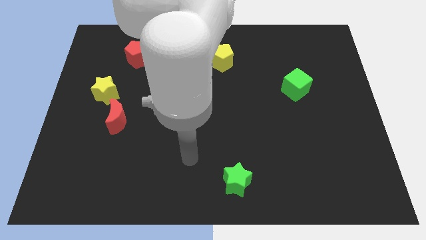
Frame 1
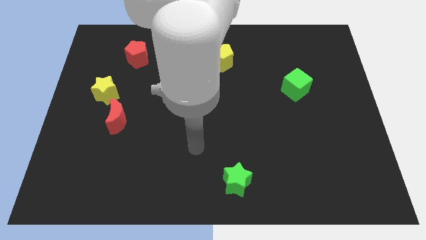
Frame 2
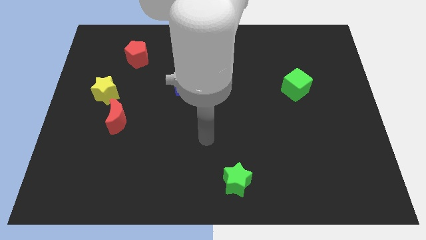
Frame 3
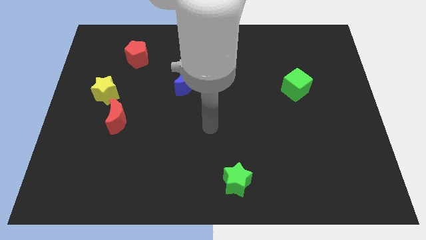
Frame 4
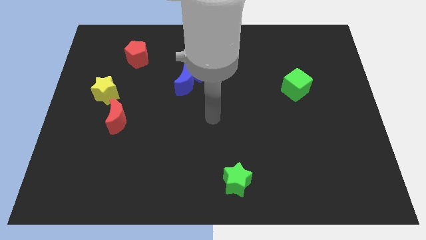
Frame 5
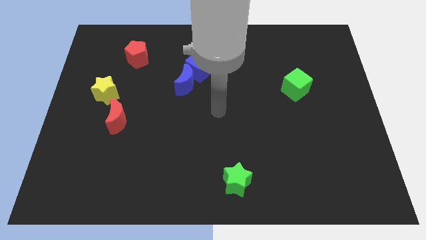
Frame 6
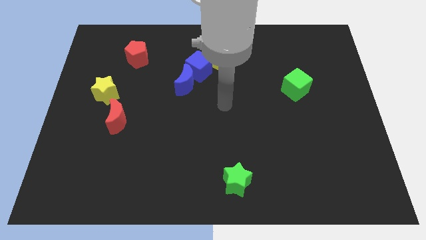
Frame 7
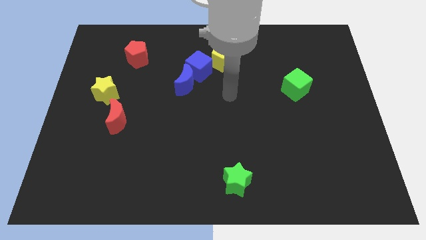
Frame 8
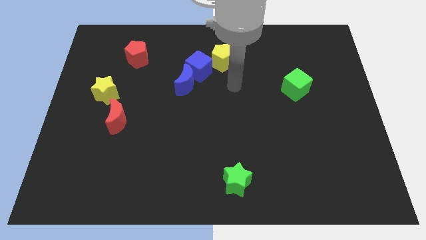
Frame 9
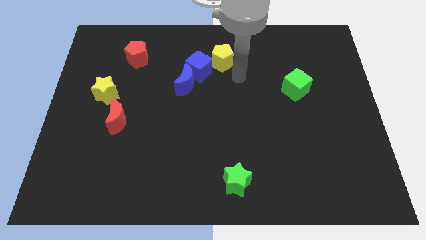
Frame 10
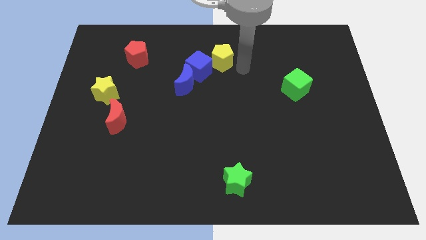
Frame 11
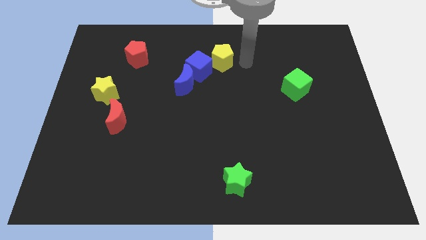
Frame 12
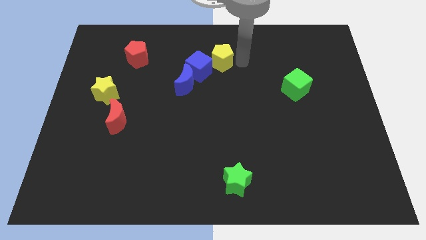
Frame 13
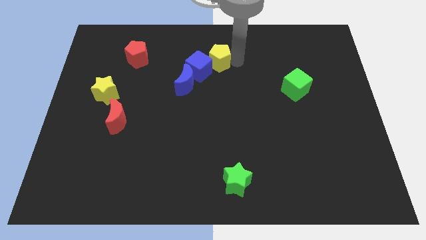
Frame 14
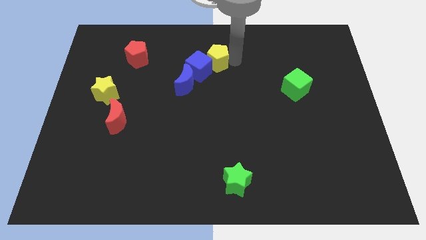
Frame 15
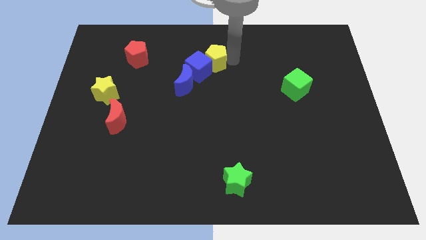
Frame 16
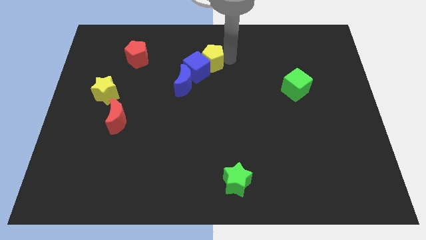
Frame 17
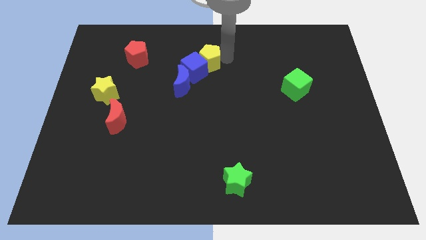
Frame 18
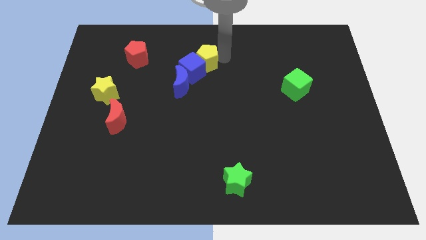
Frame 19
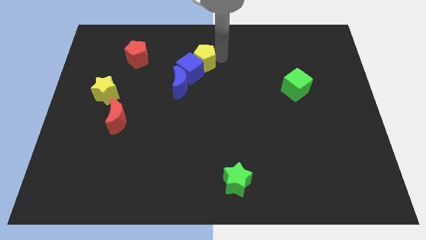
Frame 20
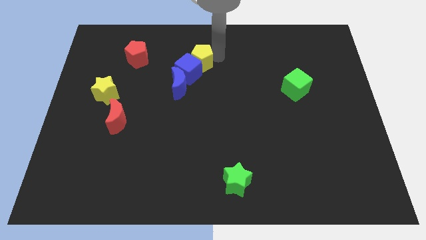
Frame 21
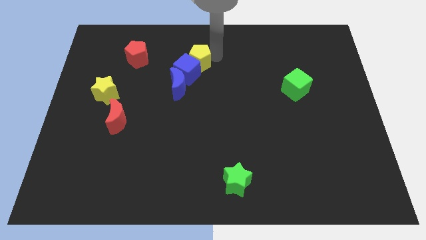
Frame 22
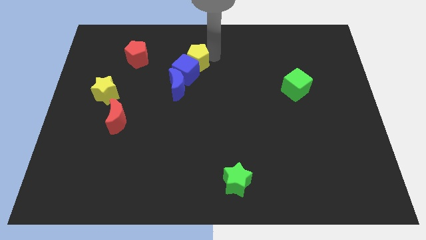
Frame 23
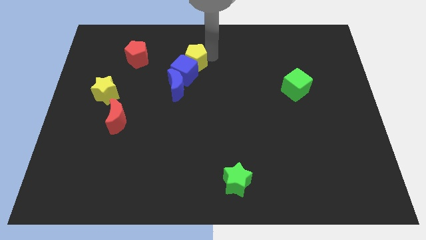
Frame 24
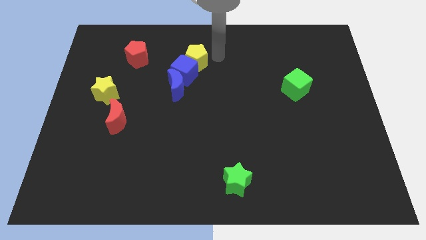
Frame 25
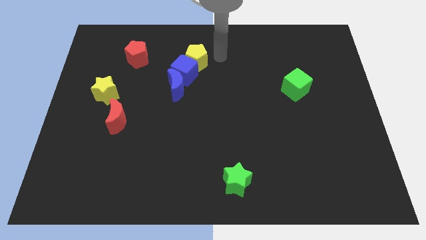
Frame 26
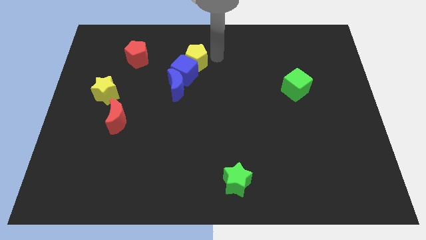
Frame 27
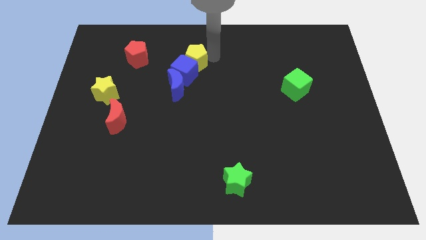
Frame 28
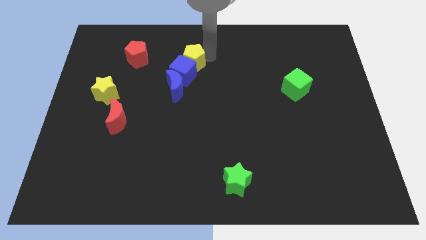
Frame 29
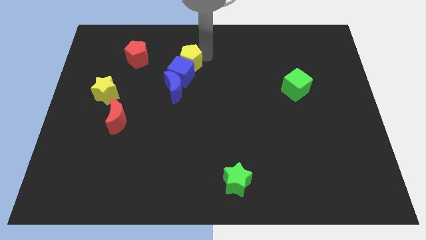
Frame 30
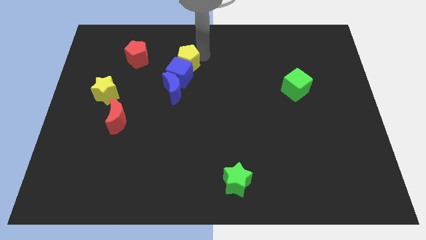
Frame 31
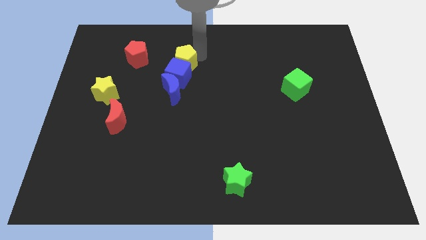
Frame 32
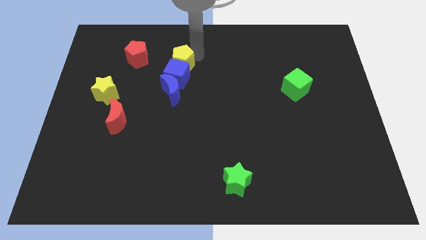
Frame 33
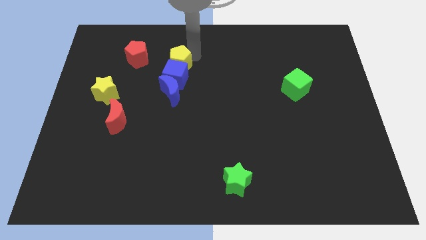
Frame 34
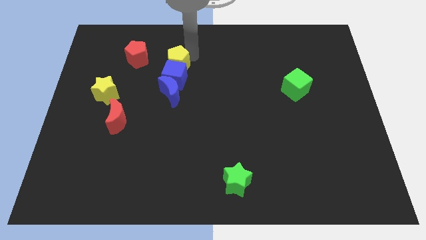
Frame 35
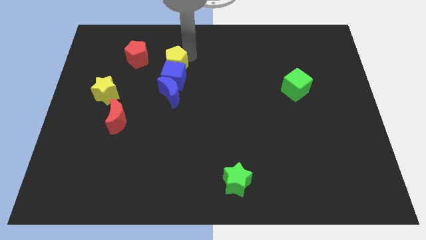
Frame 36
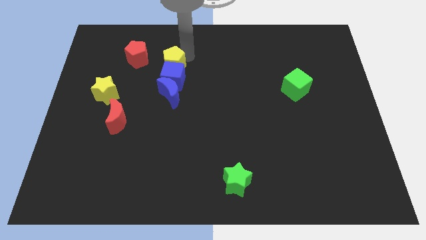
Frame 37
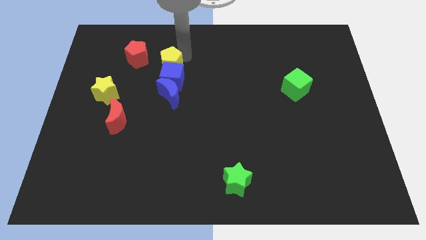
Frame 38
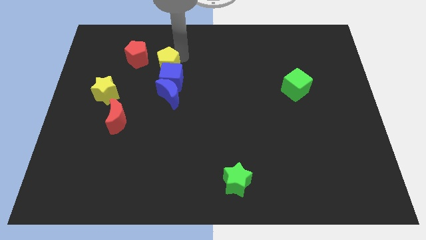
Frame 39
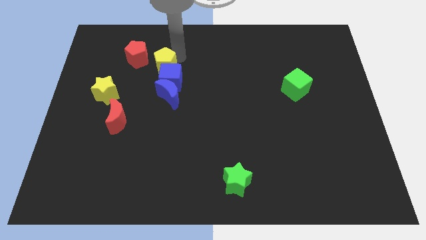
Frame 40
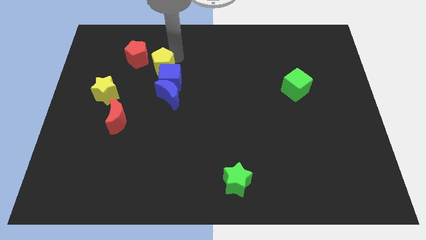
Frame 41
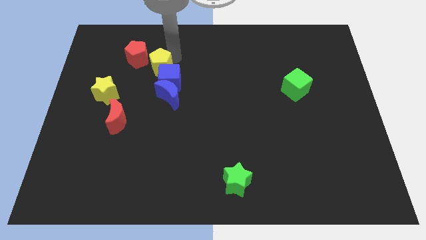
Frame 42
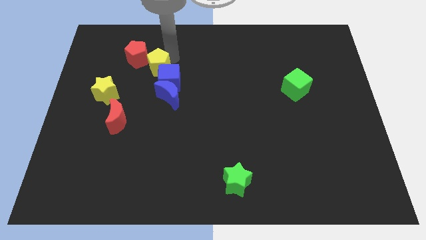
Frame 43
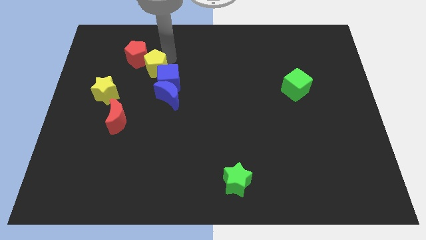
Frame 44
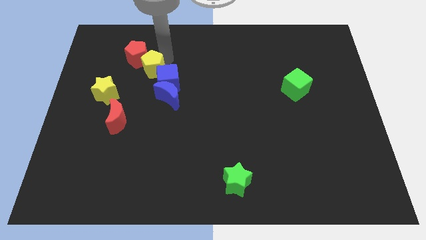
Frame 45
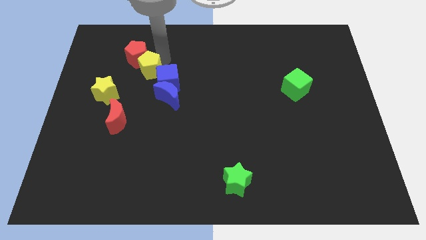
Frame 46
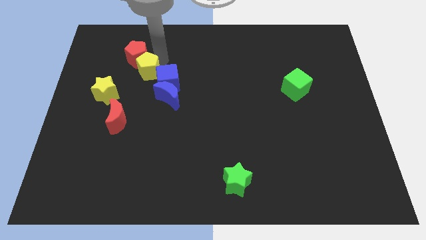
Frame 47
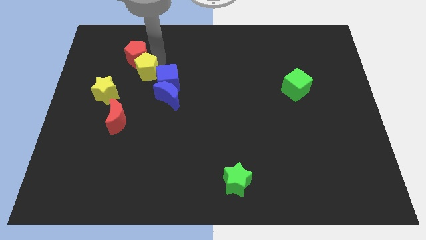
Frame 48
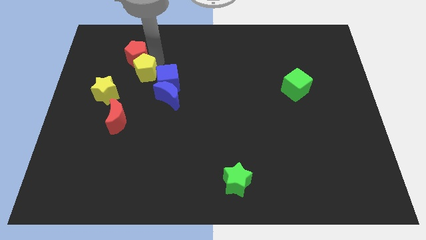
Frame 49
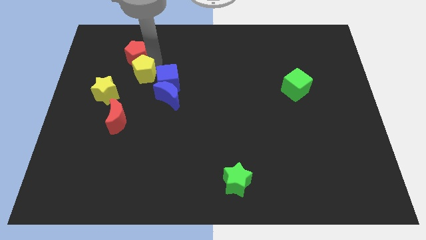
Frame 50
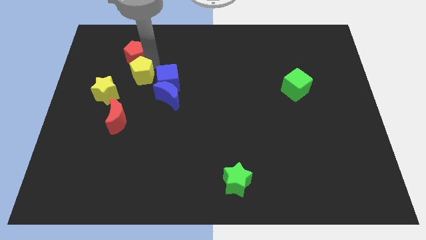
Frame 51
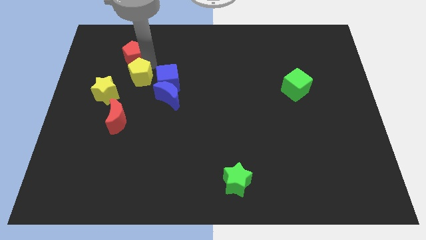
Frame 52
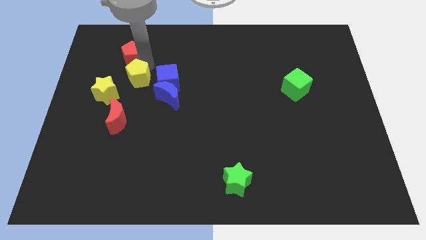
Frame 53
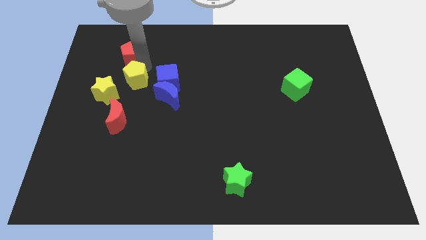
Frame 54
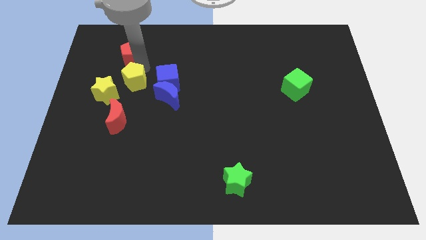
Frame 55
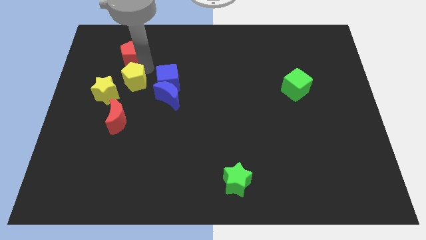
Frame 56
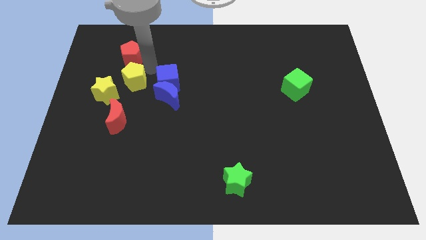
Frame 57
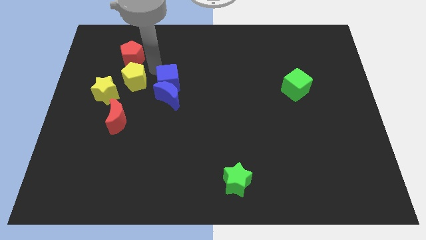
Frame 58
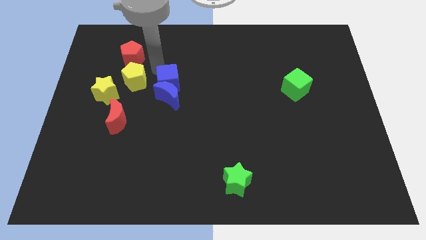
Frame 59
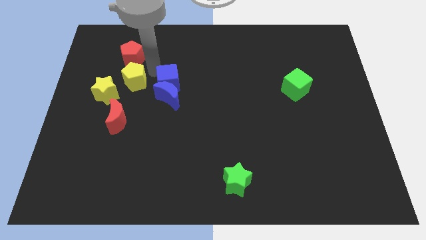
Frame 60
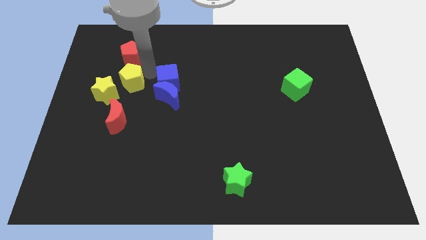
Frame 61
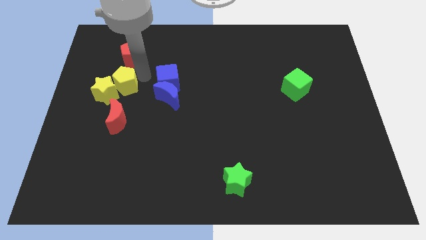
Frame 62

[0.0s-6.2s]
put the yellow pentagon to the yellow star

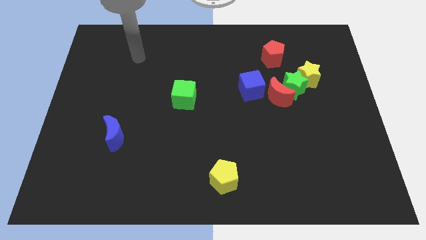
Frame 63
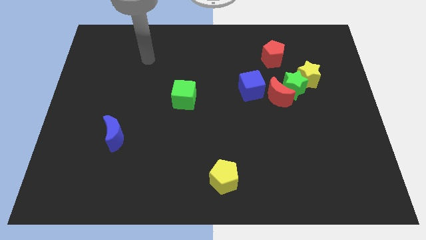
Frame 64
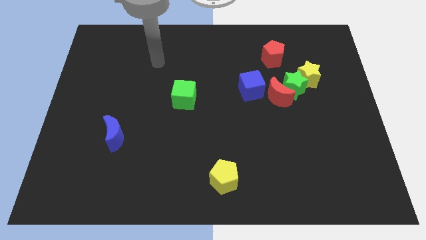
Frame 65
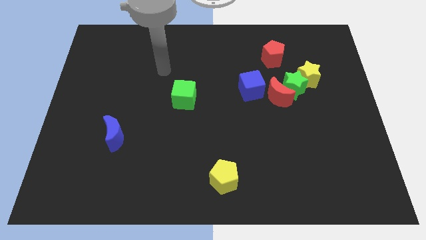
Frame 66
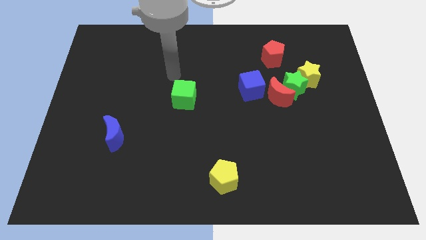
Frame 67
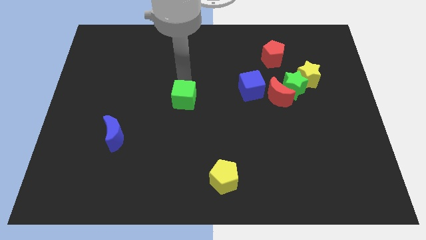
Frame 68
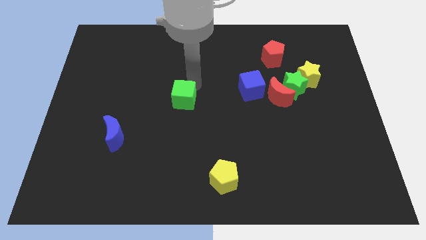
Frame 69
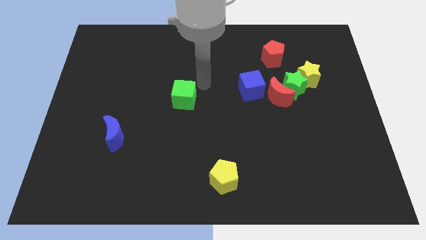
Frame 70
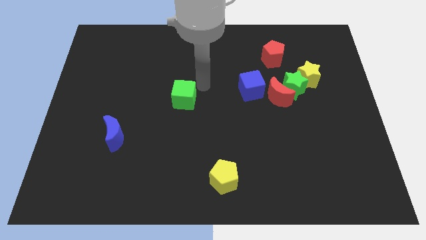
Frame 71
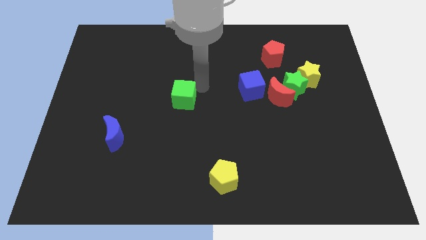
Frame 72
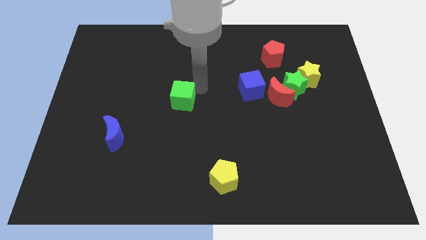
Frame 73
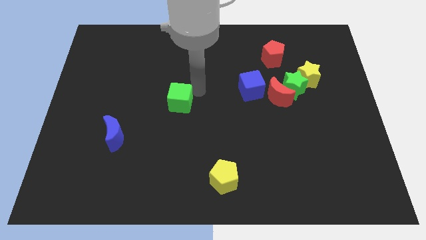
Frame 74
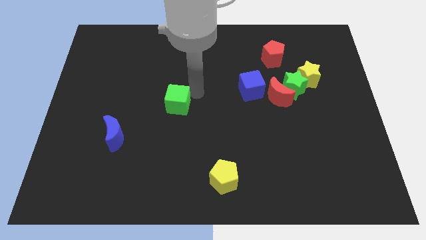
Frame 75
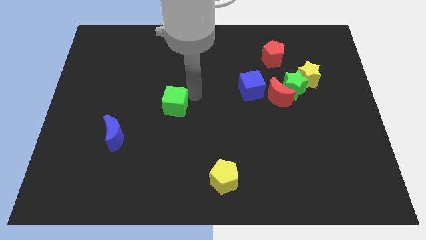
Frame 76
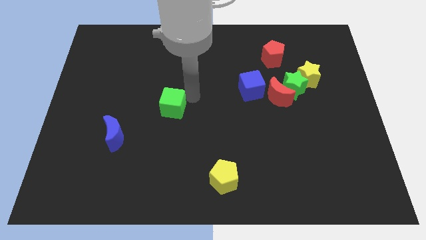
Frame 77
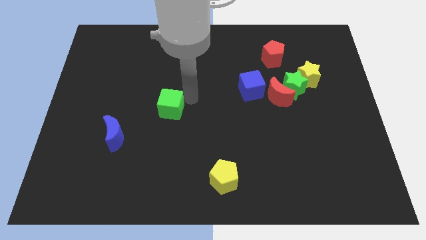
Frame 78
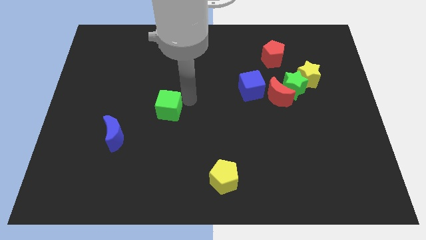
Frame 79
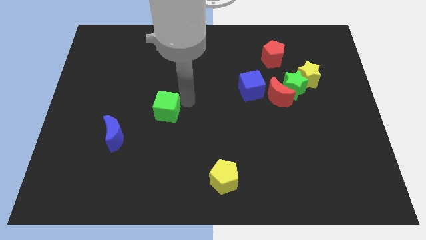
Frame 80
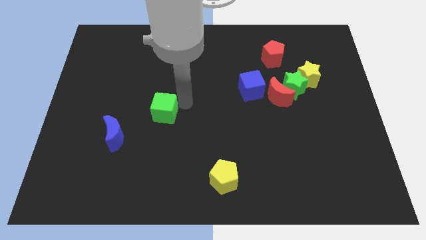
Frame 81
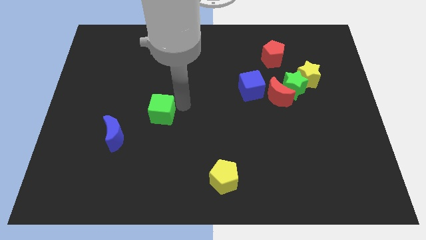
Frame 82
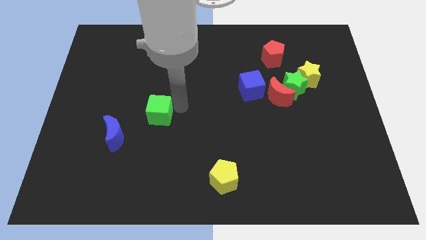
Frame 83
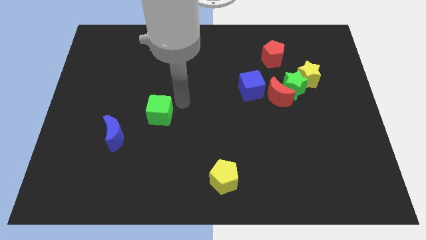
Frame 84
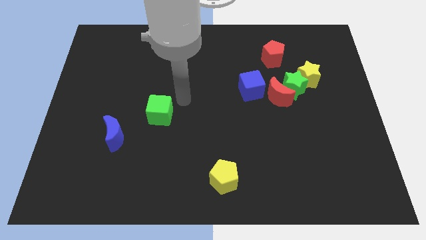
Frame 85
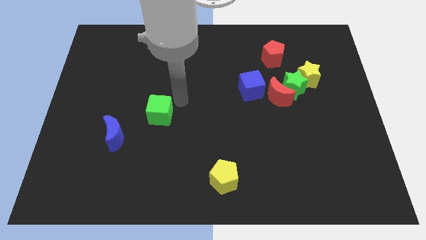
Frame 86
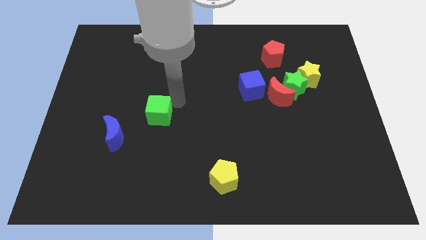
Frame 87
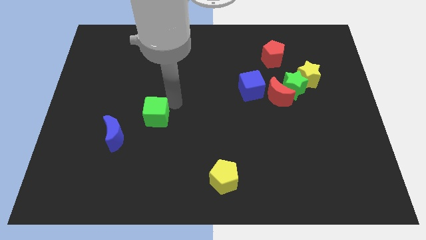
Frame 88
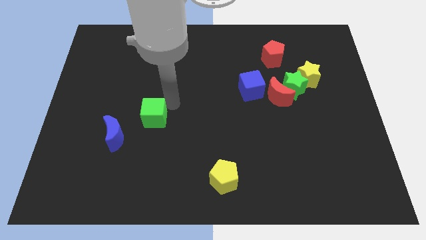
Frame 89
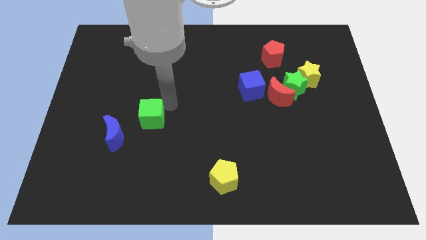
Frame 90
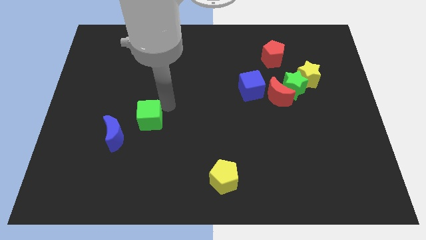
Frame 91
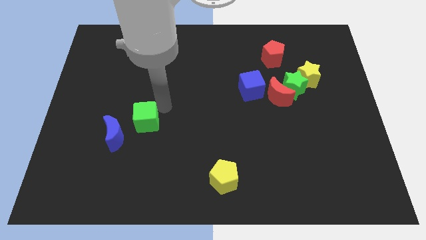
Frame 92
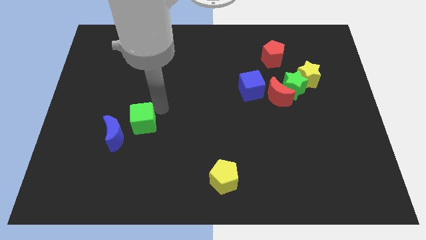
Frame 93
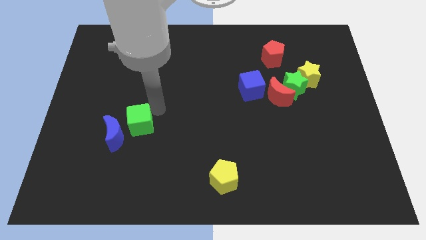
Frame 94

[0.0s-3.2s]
slide the green cube next to the blue moon
